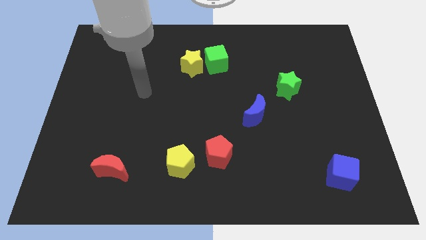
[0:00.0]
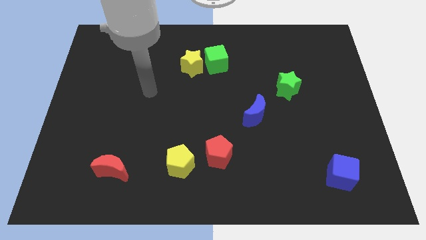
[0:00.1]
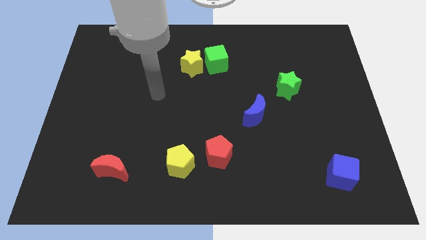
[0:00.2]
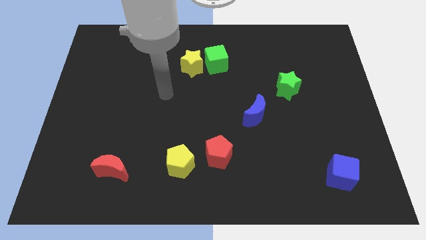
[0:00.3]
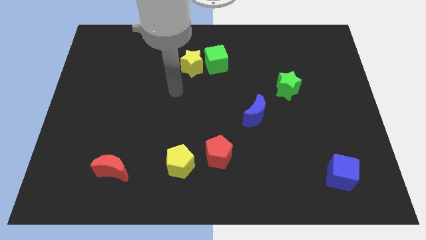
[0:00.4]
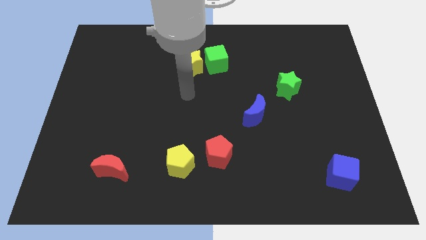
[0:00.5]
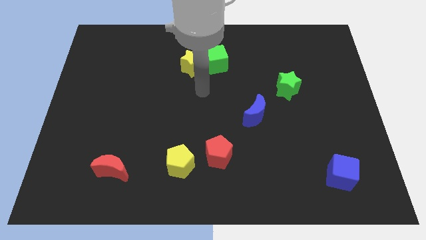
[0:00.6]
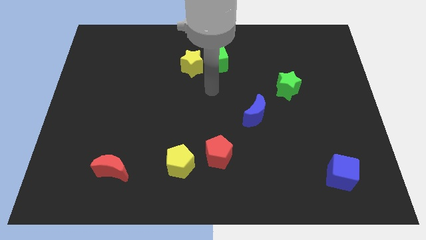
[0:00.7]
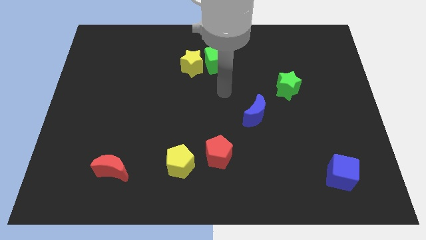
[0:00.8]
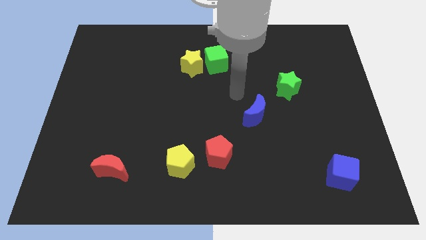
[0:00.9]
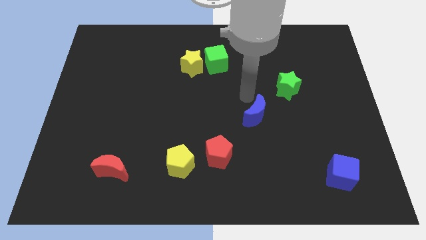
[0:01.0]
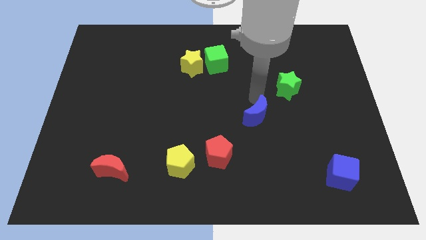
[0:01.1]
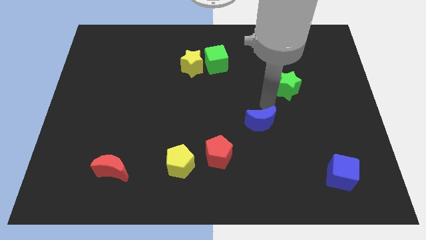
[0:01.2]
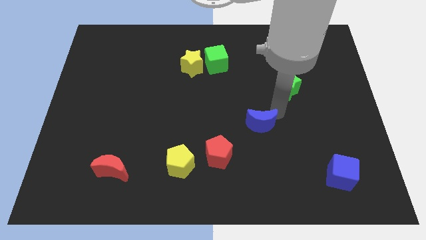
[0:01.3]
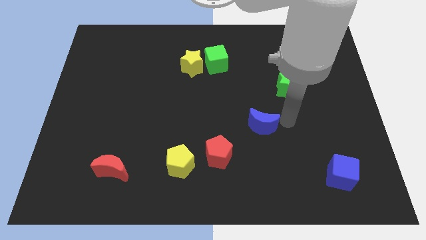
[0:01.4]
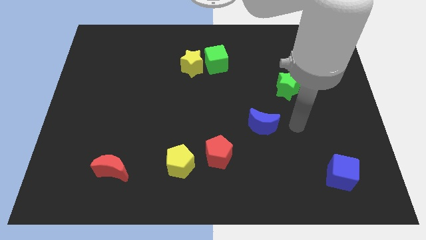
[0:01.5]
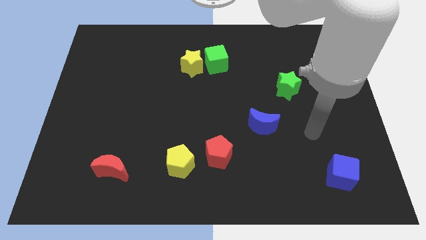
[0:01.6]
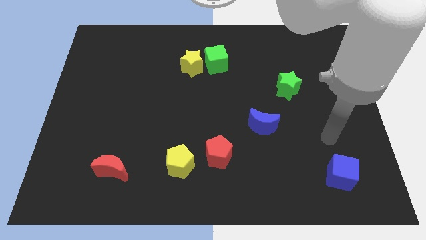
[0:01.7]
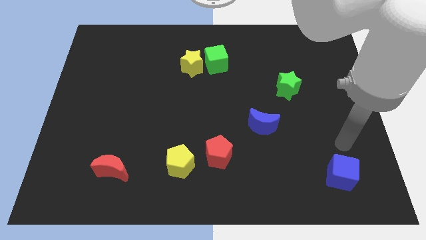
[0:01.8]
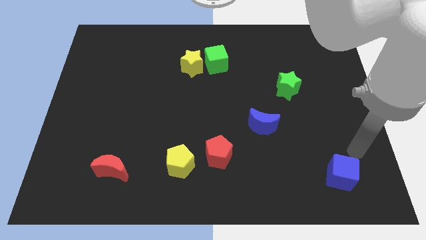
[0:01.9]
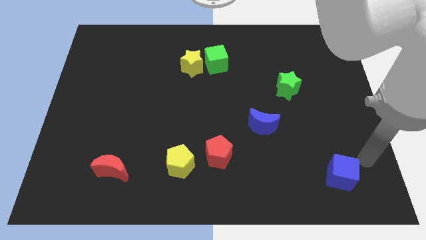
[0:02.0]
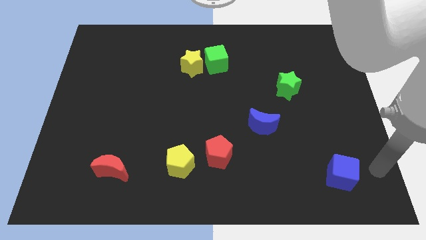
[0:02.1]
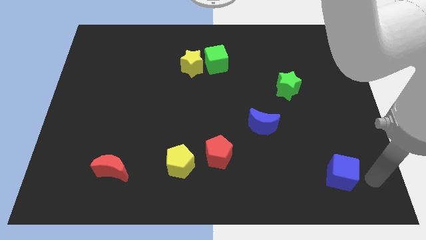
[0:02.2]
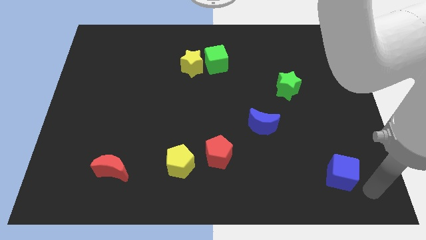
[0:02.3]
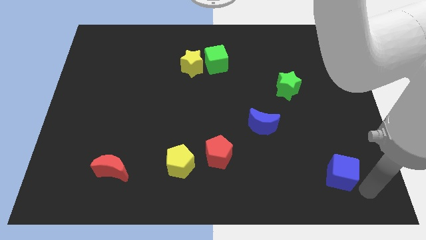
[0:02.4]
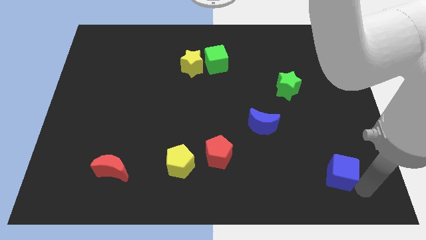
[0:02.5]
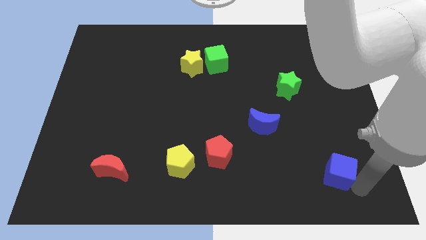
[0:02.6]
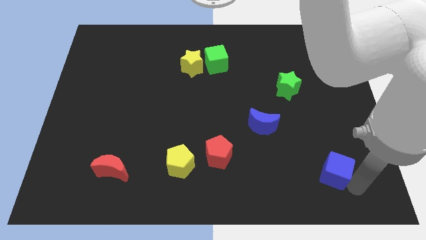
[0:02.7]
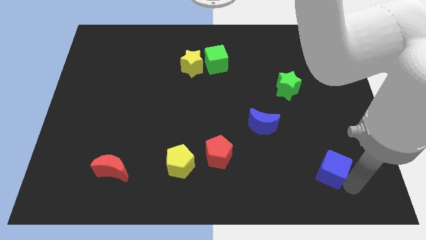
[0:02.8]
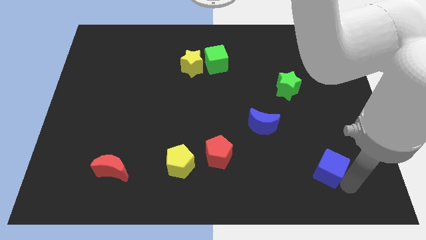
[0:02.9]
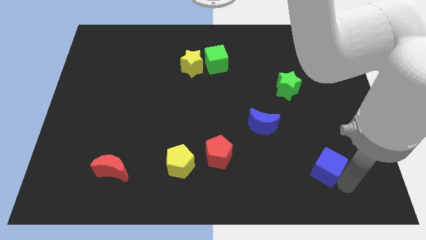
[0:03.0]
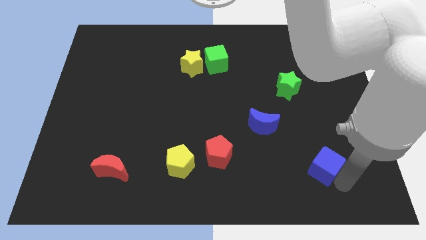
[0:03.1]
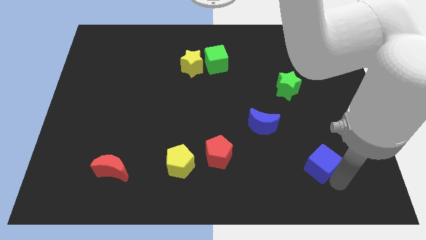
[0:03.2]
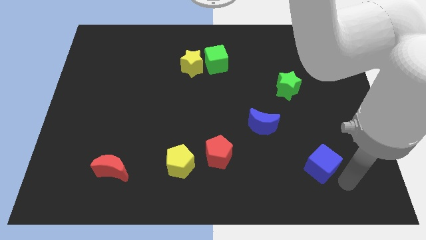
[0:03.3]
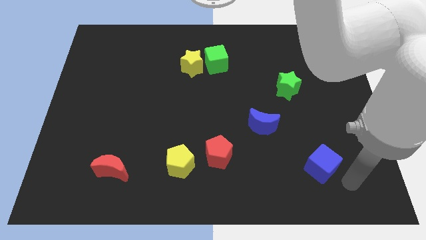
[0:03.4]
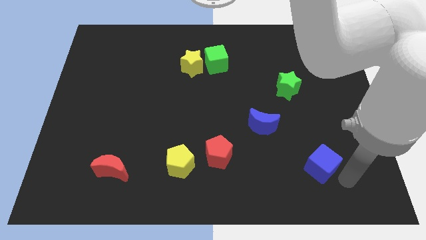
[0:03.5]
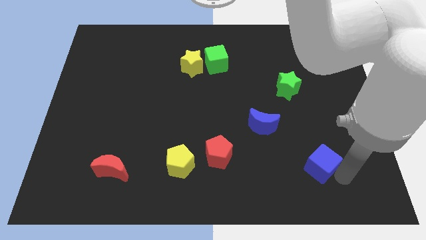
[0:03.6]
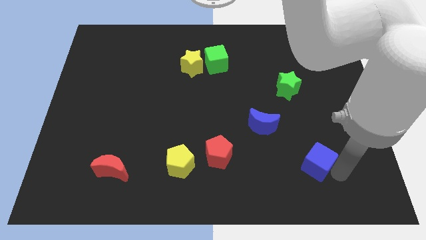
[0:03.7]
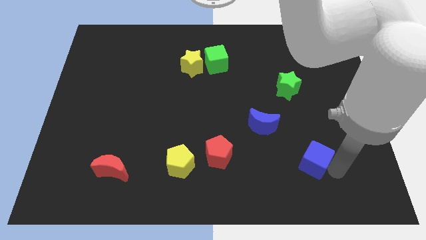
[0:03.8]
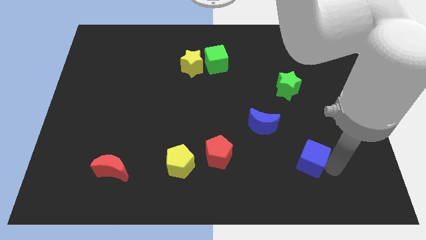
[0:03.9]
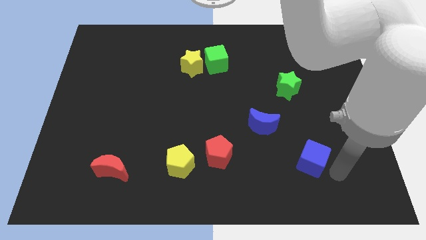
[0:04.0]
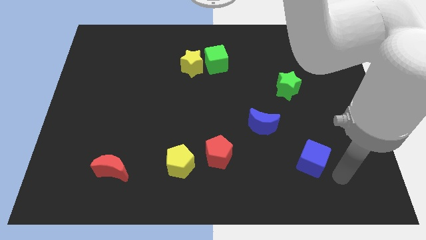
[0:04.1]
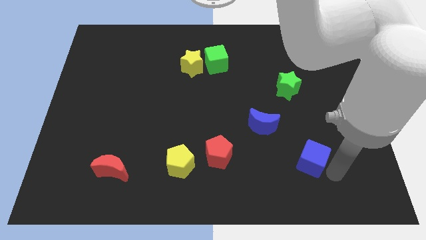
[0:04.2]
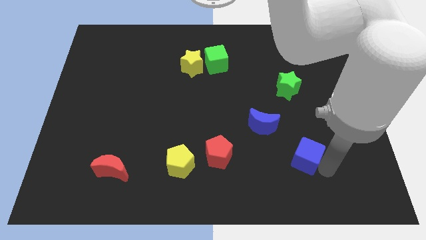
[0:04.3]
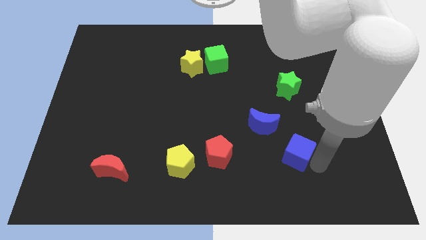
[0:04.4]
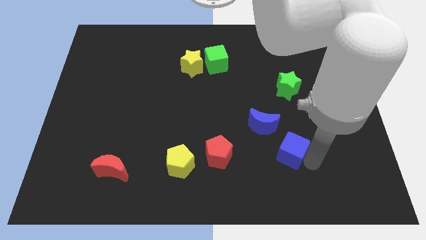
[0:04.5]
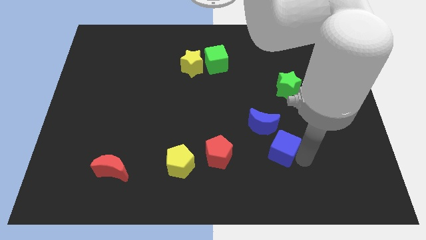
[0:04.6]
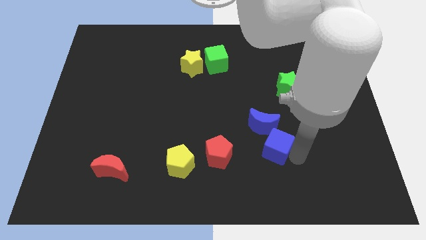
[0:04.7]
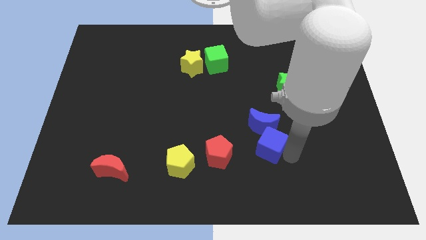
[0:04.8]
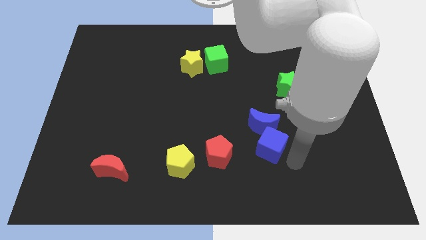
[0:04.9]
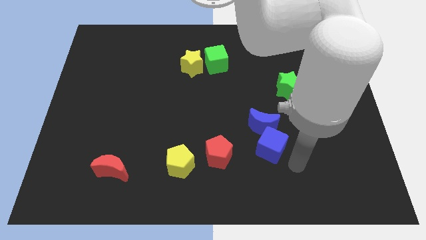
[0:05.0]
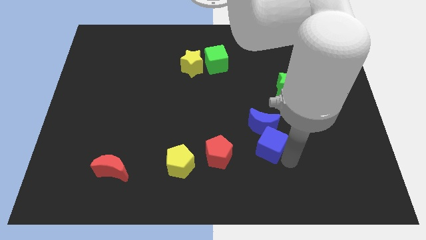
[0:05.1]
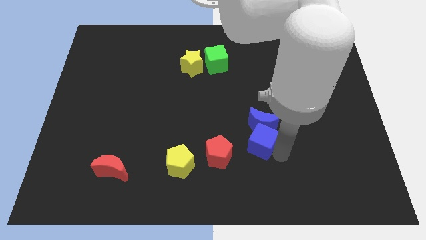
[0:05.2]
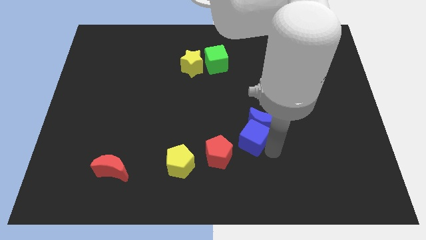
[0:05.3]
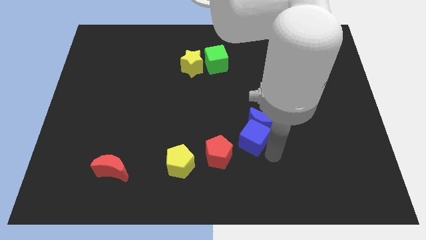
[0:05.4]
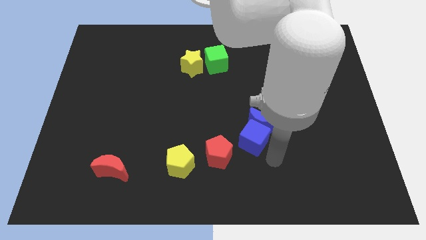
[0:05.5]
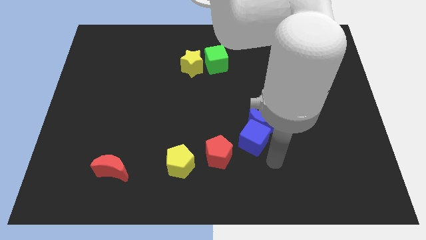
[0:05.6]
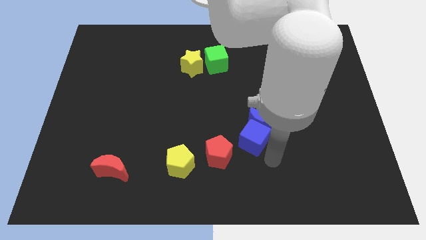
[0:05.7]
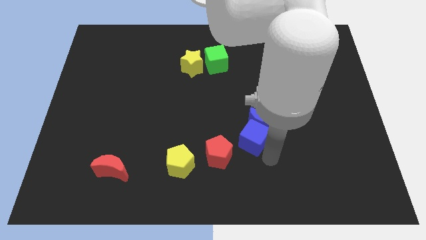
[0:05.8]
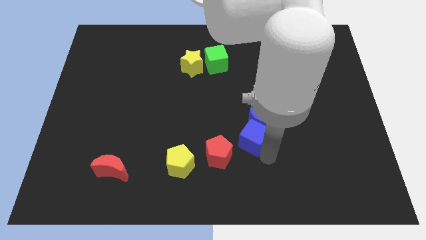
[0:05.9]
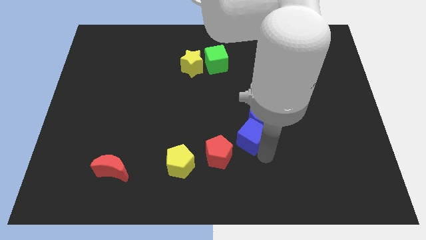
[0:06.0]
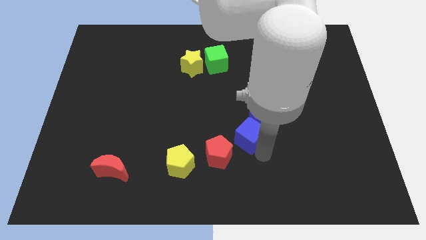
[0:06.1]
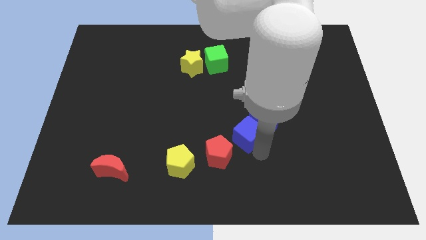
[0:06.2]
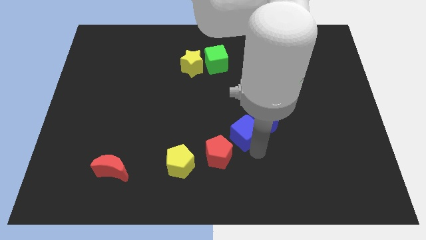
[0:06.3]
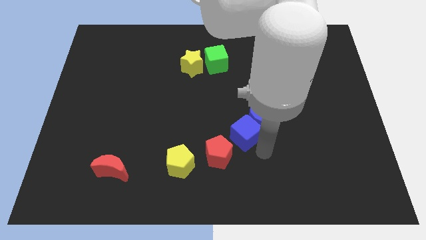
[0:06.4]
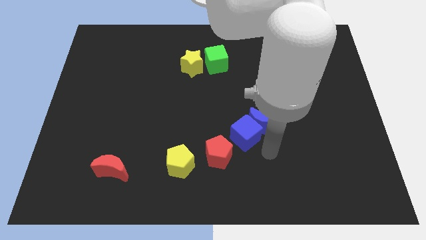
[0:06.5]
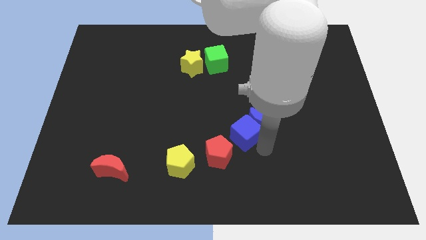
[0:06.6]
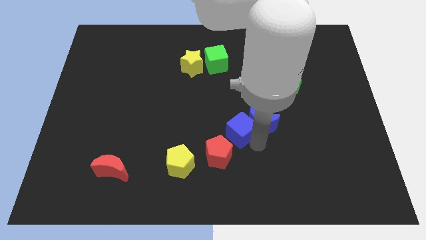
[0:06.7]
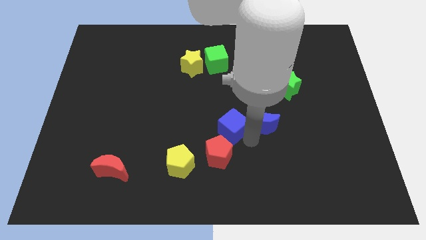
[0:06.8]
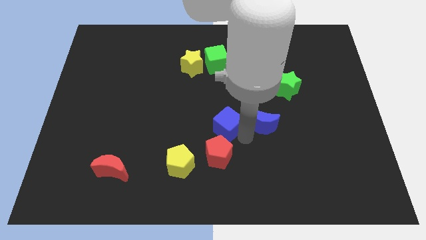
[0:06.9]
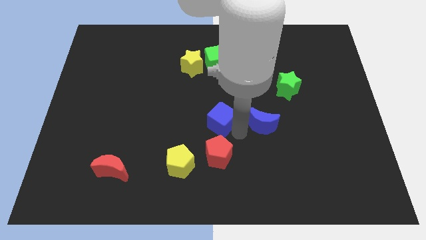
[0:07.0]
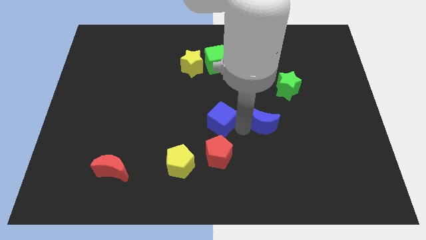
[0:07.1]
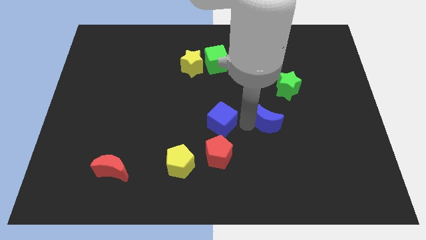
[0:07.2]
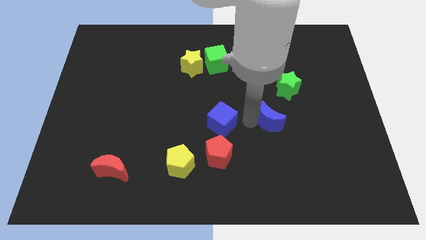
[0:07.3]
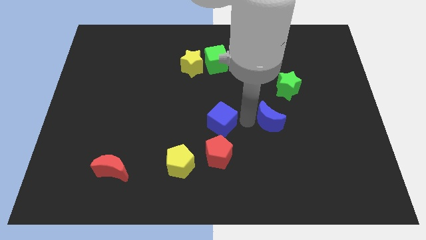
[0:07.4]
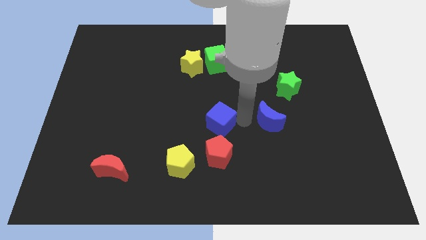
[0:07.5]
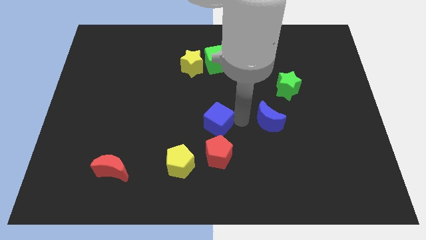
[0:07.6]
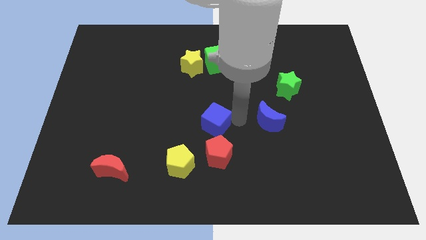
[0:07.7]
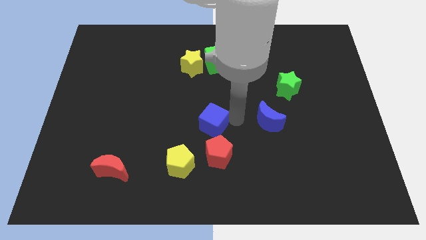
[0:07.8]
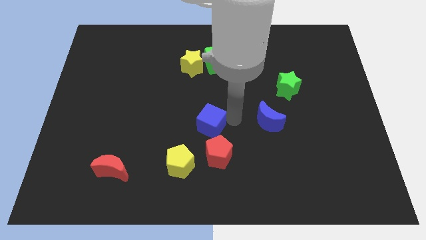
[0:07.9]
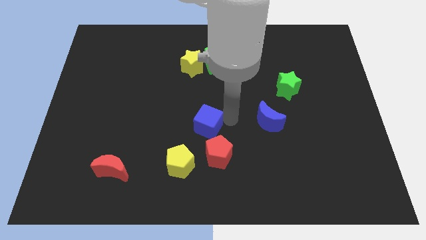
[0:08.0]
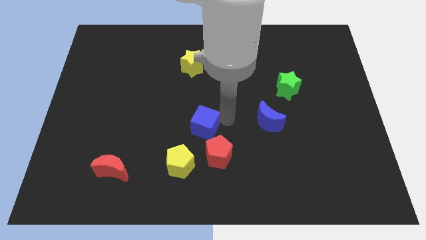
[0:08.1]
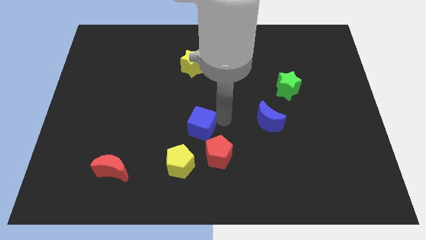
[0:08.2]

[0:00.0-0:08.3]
slide the blue cube above the yellow pentagon
